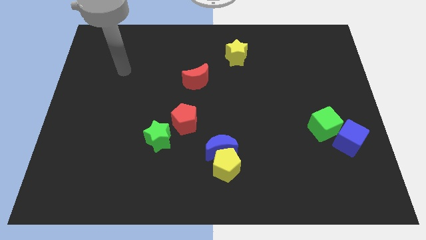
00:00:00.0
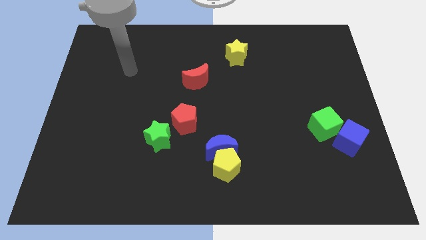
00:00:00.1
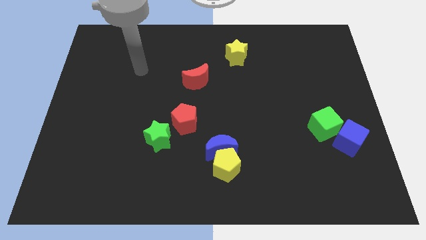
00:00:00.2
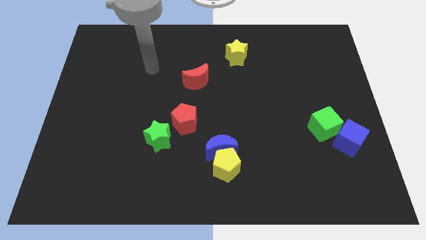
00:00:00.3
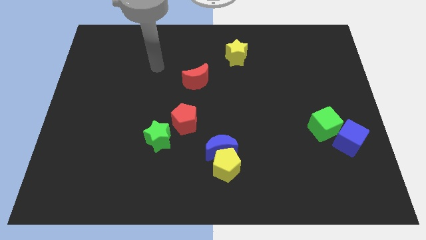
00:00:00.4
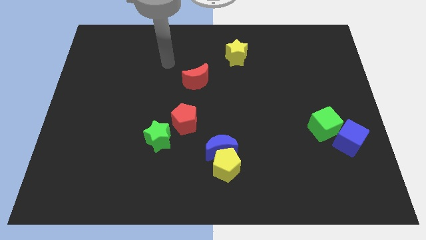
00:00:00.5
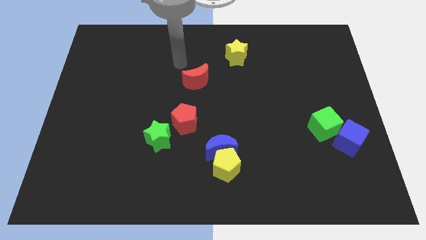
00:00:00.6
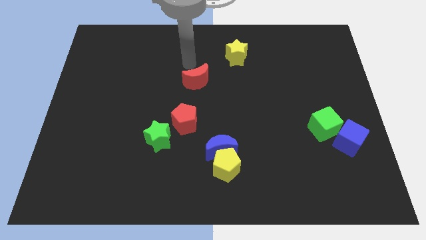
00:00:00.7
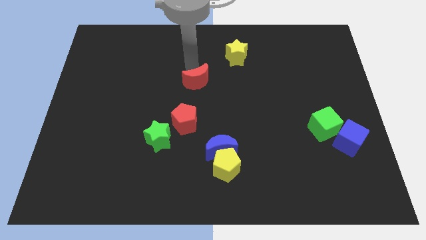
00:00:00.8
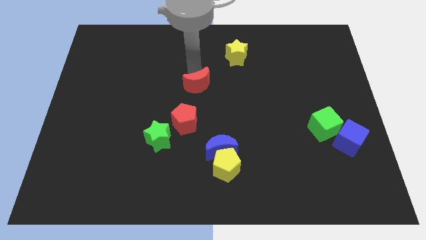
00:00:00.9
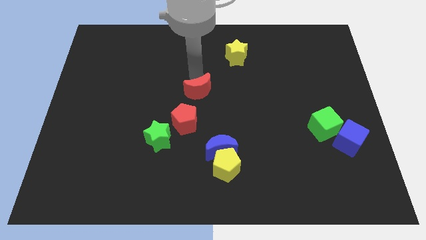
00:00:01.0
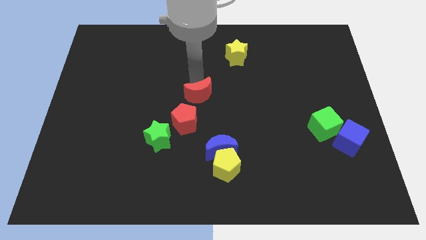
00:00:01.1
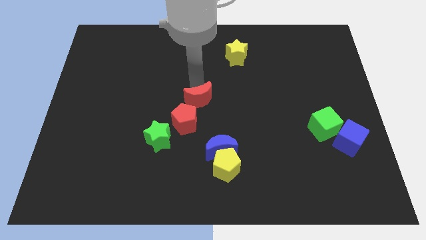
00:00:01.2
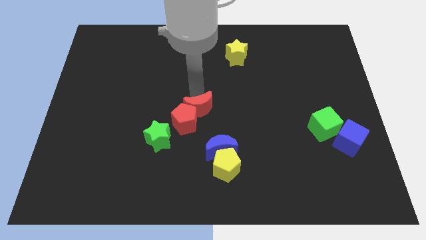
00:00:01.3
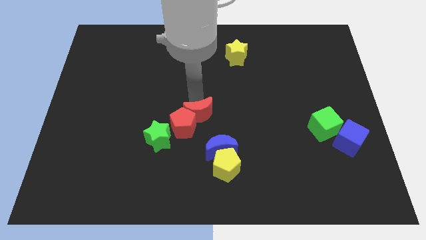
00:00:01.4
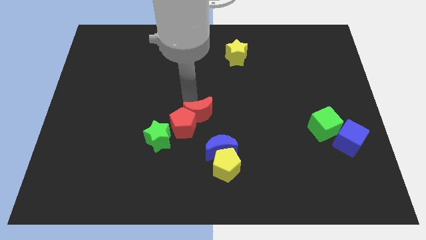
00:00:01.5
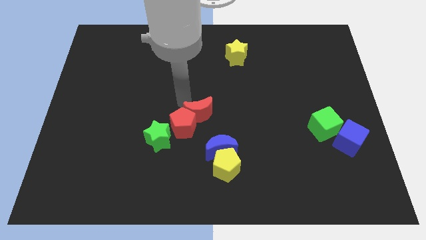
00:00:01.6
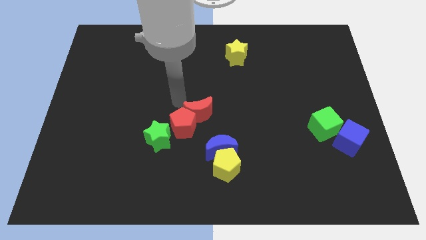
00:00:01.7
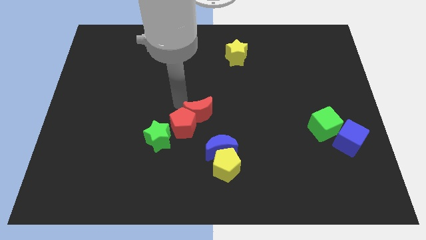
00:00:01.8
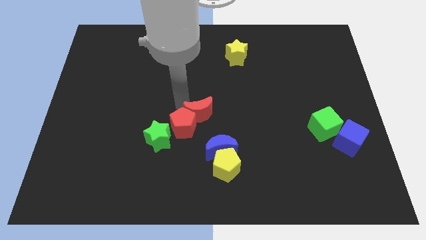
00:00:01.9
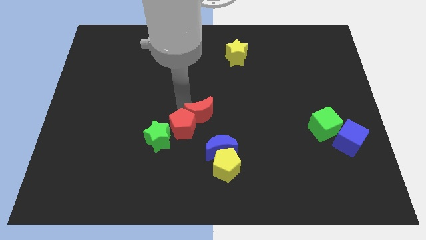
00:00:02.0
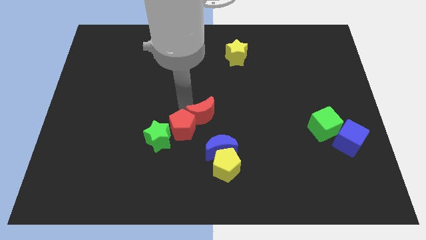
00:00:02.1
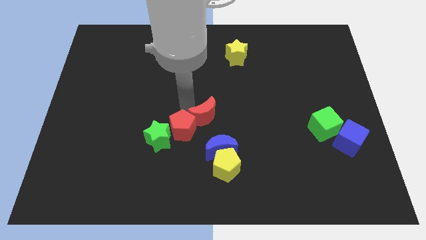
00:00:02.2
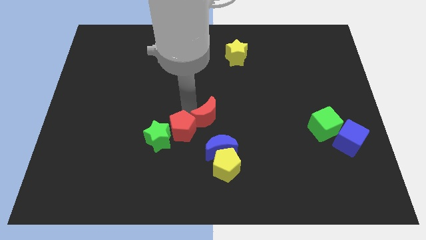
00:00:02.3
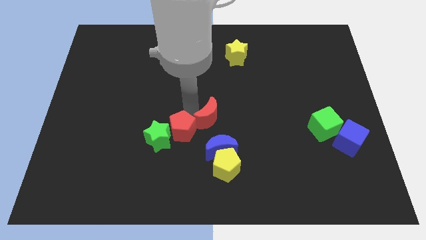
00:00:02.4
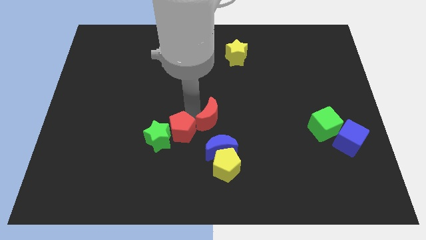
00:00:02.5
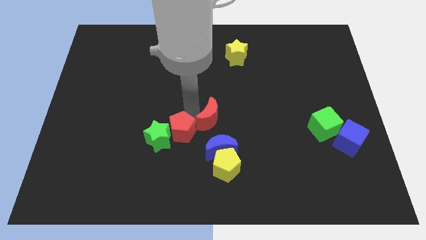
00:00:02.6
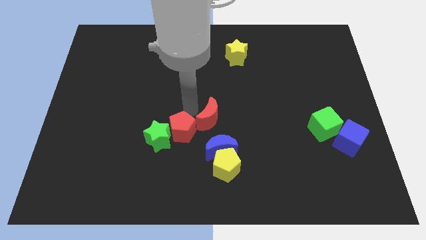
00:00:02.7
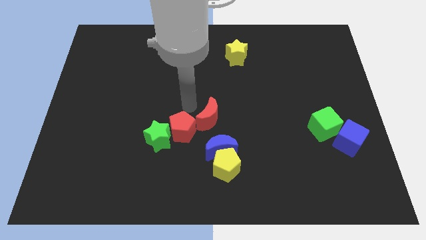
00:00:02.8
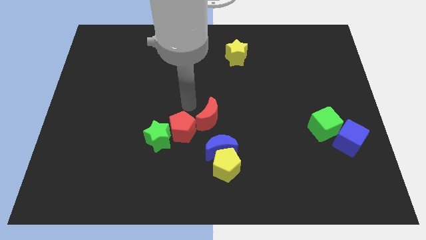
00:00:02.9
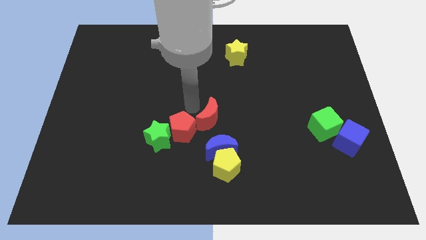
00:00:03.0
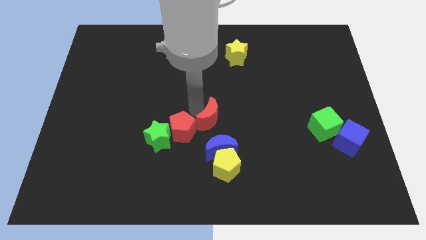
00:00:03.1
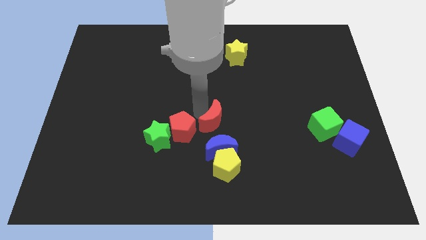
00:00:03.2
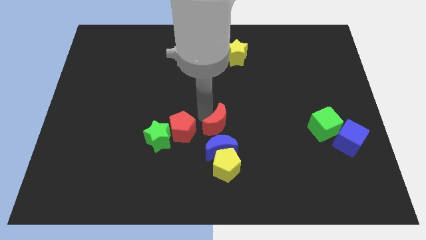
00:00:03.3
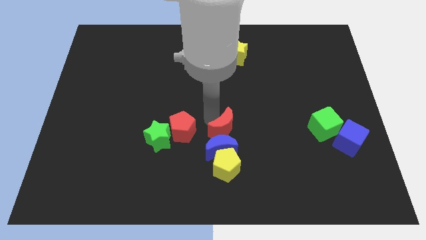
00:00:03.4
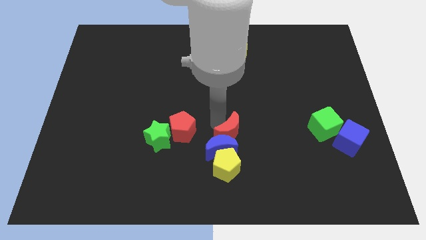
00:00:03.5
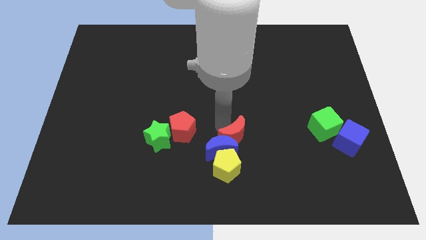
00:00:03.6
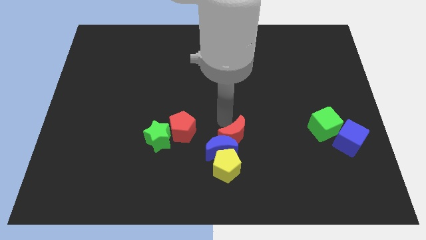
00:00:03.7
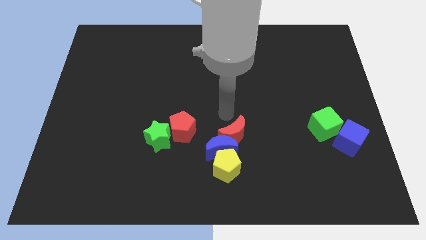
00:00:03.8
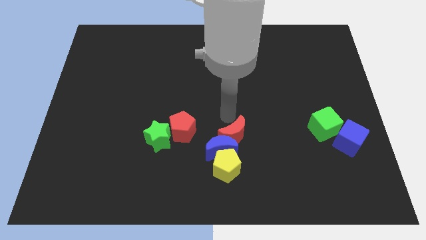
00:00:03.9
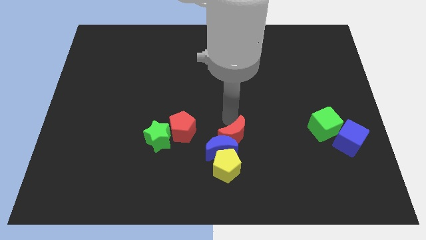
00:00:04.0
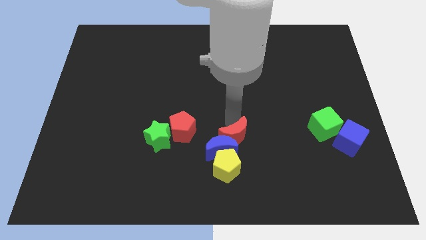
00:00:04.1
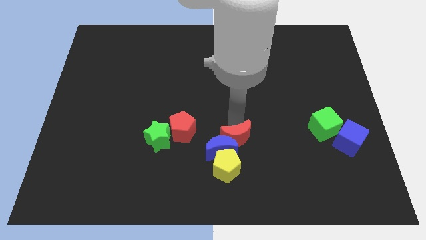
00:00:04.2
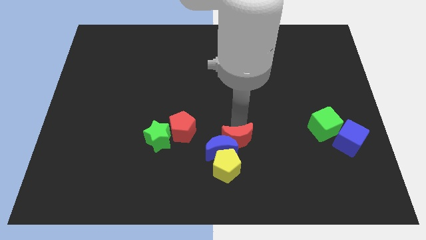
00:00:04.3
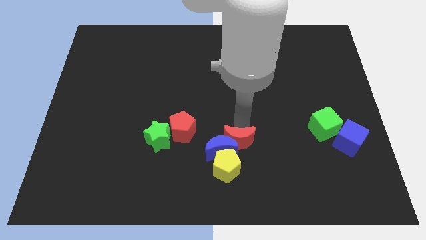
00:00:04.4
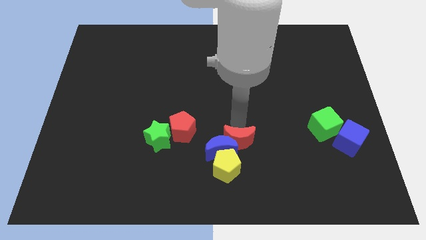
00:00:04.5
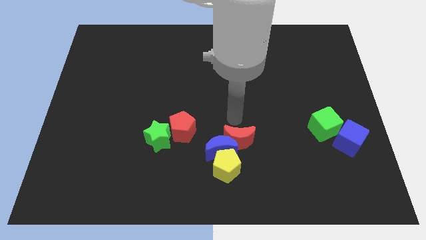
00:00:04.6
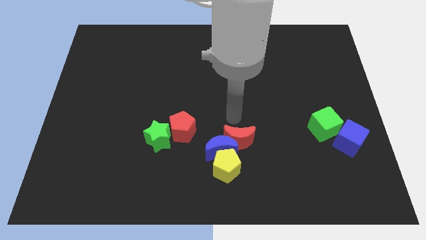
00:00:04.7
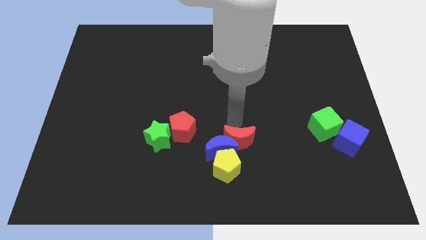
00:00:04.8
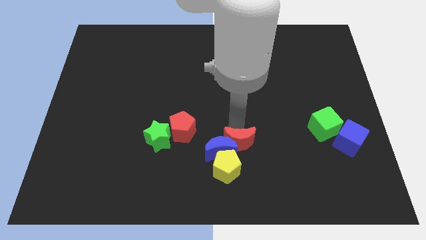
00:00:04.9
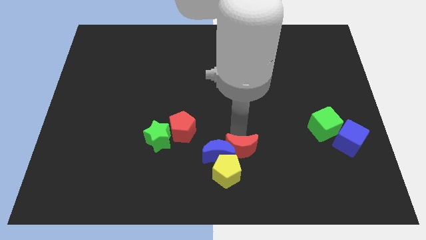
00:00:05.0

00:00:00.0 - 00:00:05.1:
push the red moon to the bottom right of the blue moon

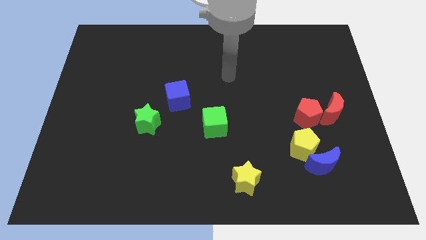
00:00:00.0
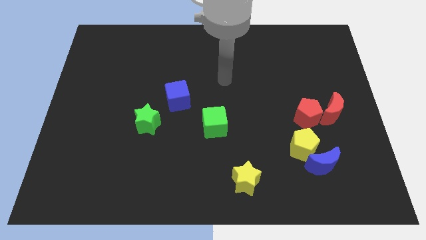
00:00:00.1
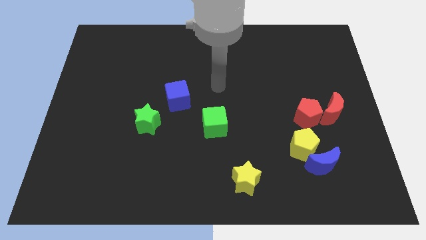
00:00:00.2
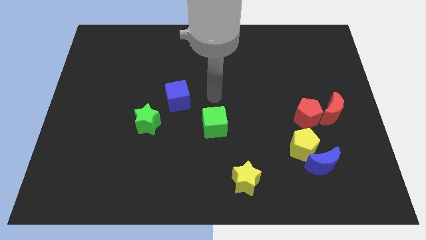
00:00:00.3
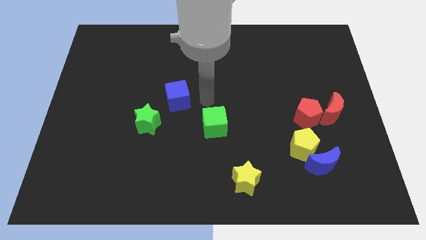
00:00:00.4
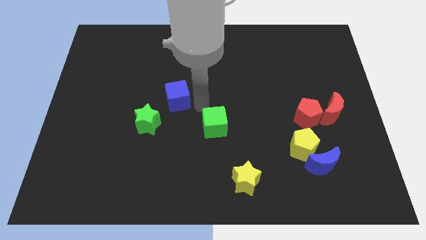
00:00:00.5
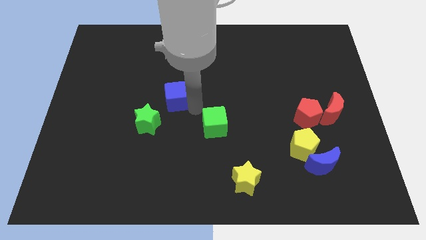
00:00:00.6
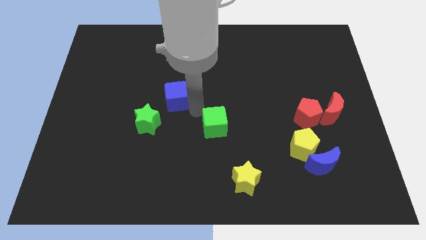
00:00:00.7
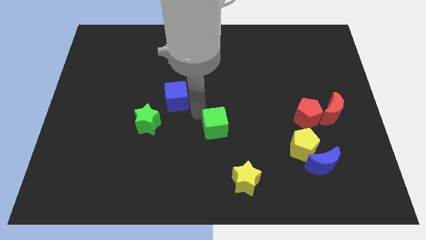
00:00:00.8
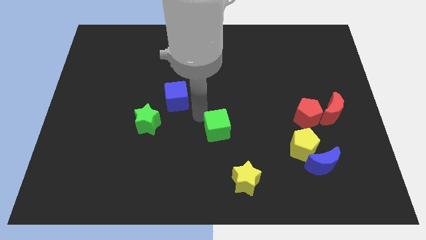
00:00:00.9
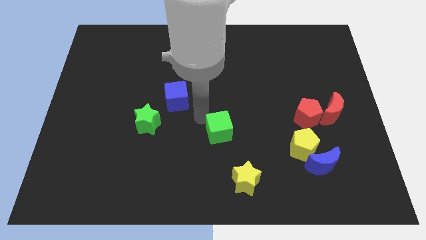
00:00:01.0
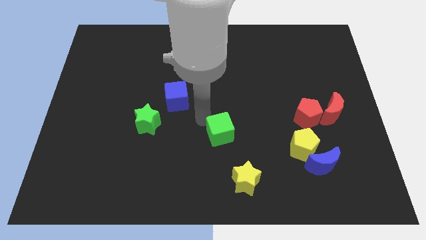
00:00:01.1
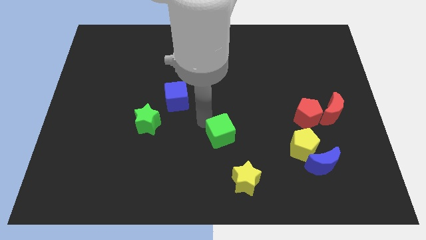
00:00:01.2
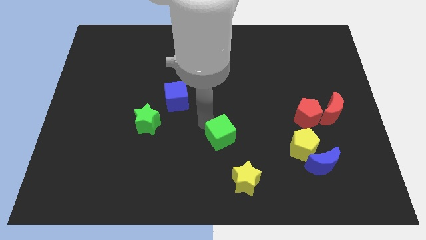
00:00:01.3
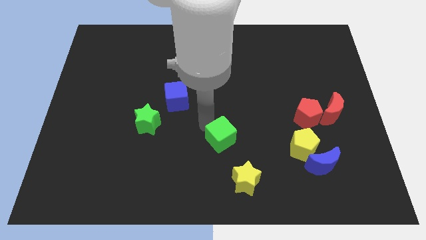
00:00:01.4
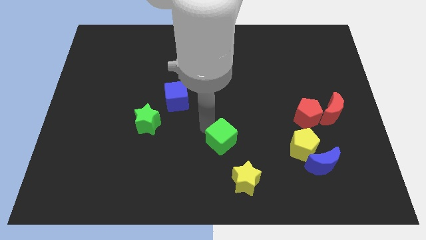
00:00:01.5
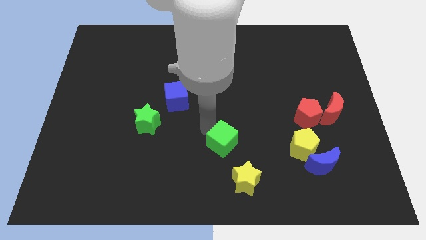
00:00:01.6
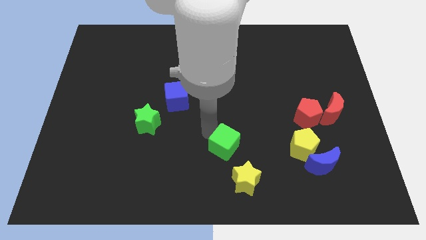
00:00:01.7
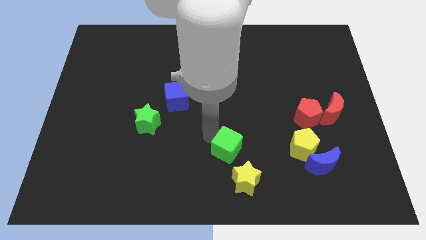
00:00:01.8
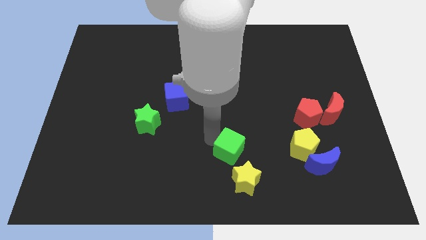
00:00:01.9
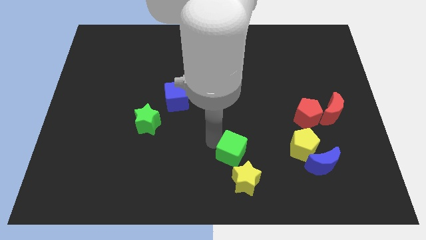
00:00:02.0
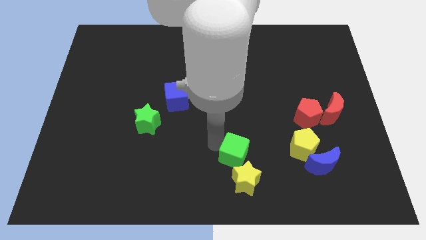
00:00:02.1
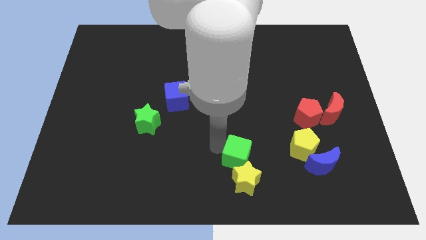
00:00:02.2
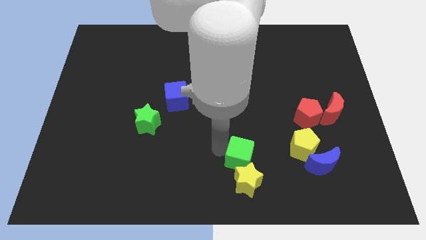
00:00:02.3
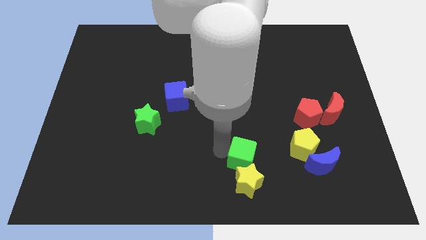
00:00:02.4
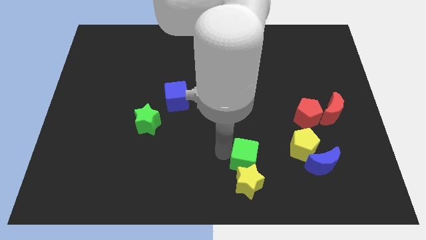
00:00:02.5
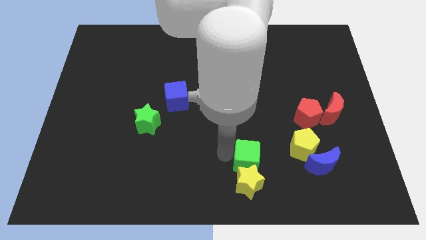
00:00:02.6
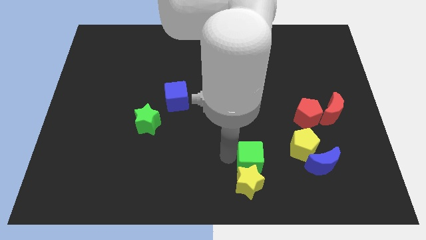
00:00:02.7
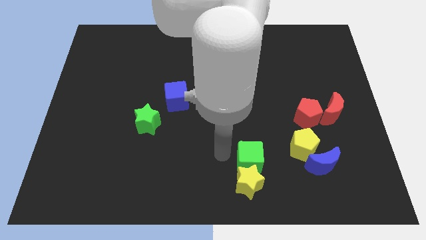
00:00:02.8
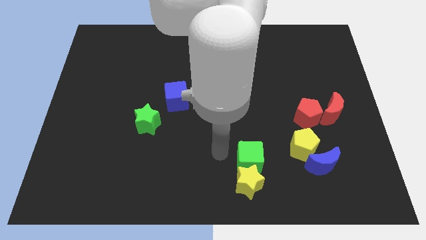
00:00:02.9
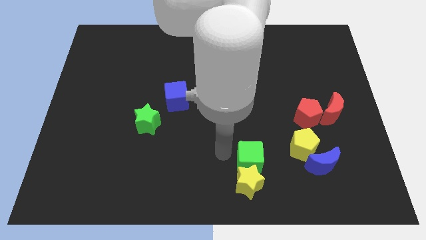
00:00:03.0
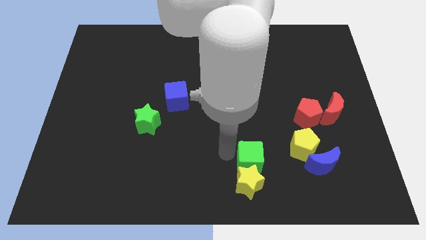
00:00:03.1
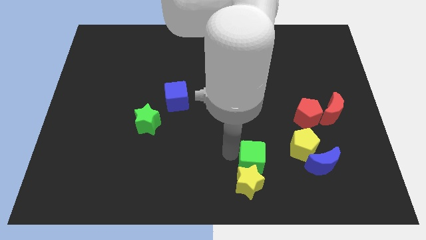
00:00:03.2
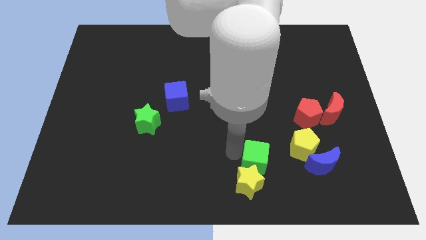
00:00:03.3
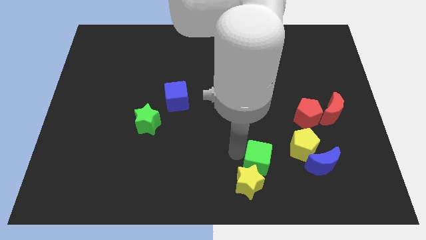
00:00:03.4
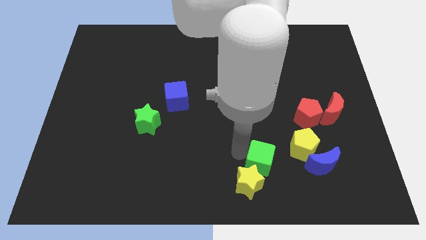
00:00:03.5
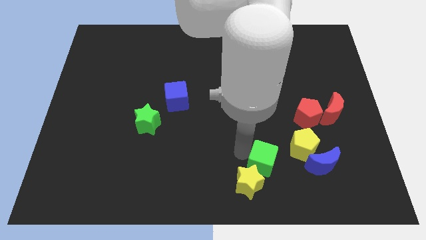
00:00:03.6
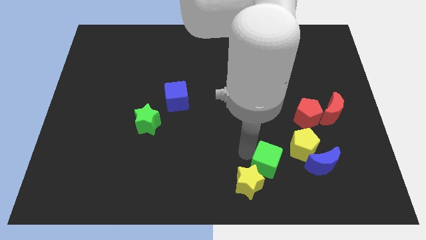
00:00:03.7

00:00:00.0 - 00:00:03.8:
put the green cube just right of the yellow star
